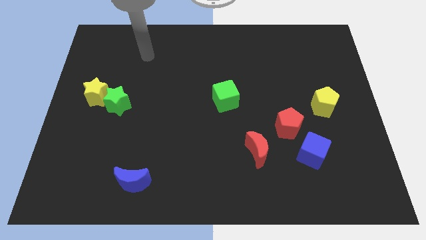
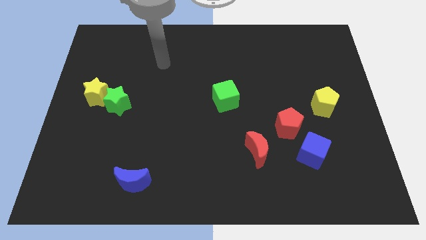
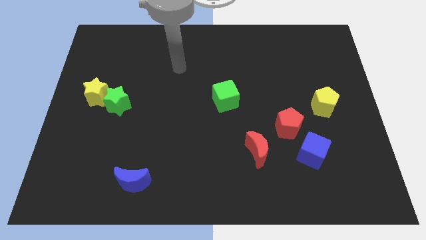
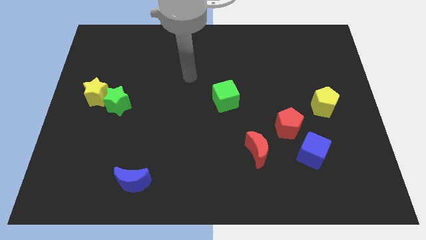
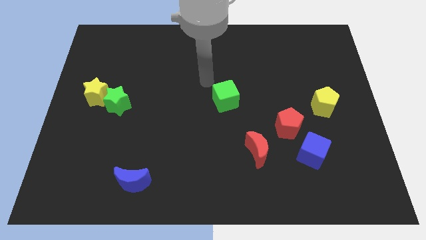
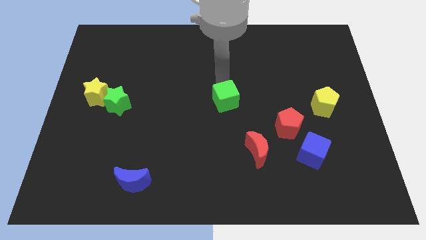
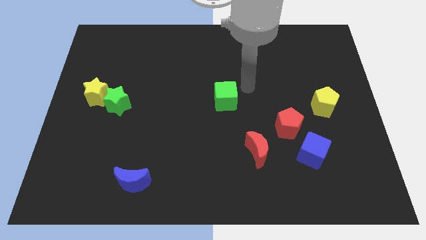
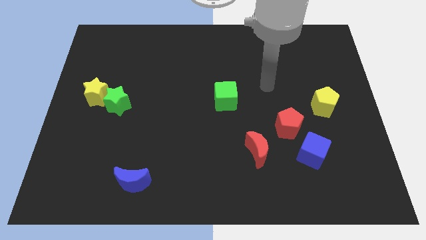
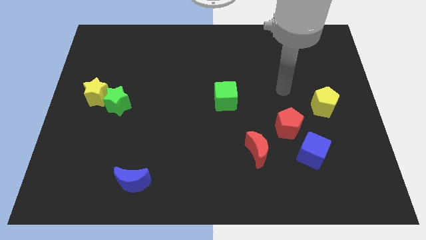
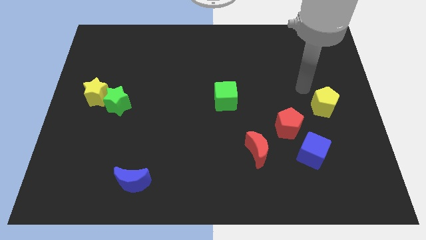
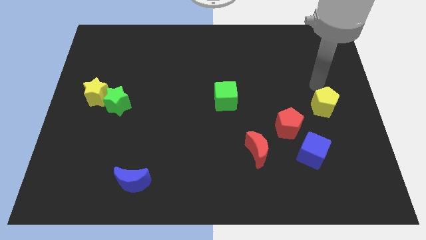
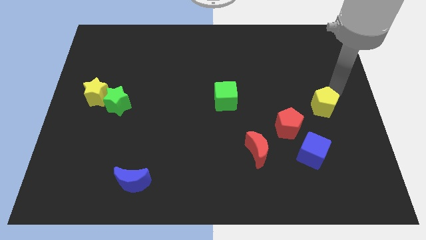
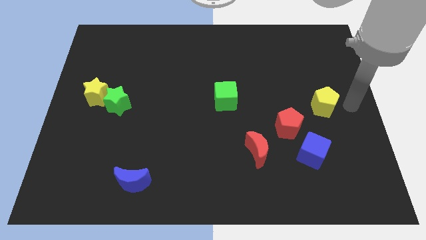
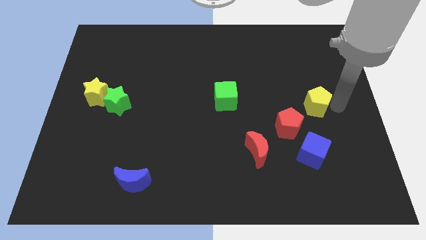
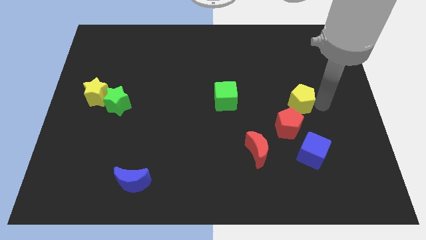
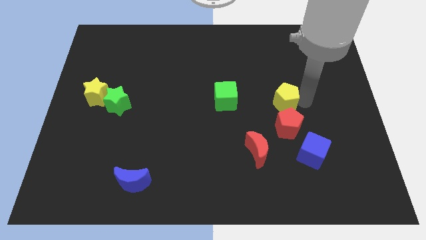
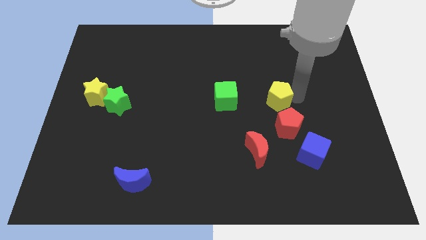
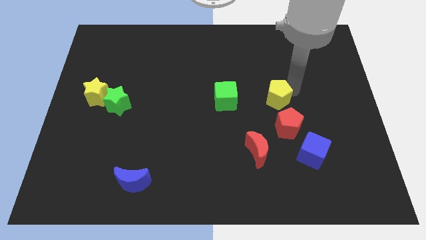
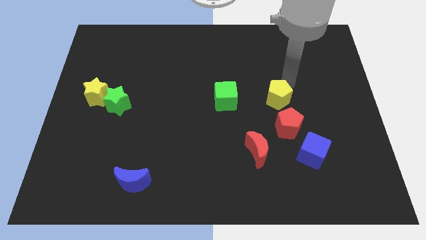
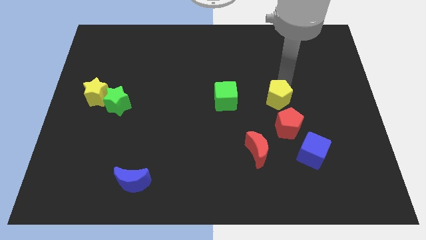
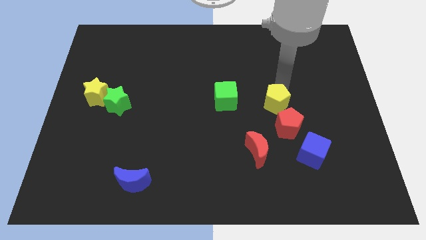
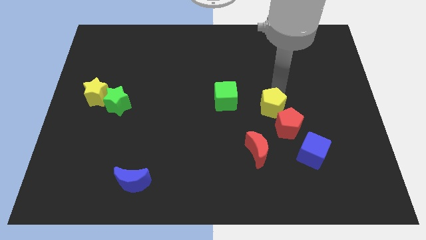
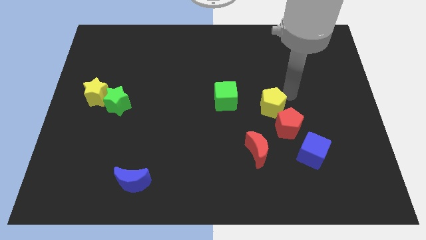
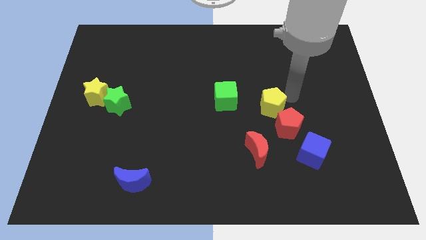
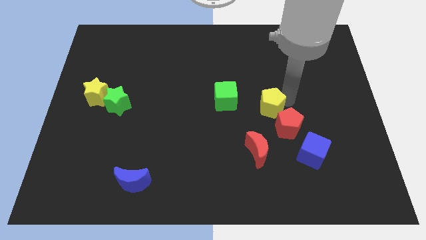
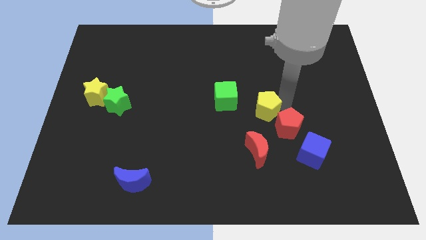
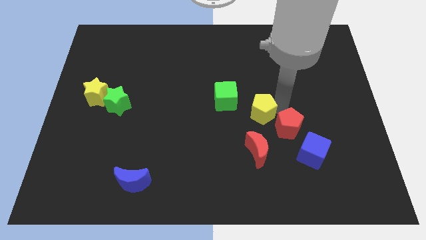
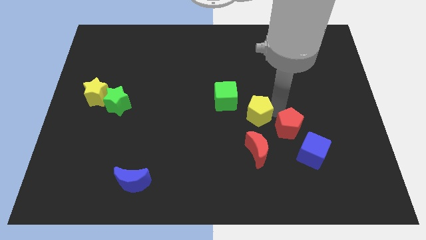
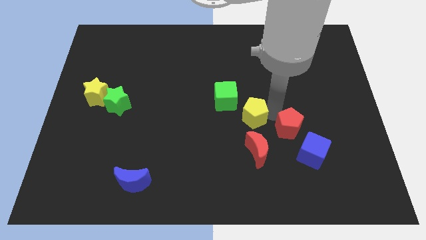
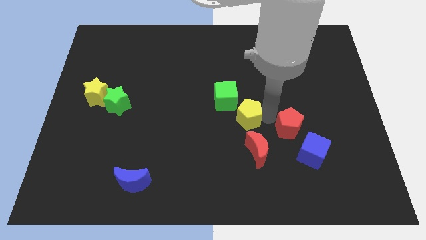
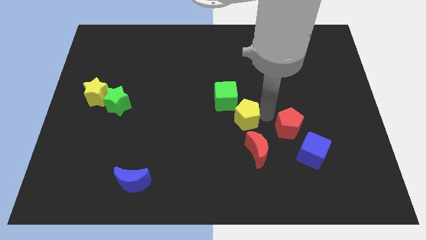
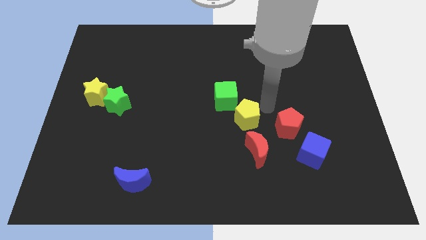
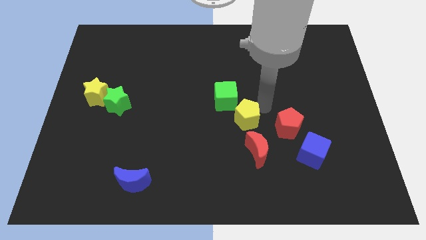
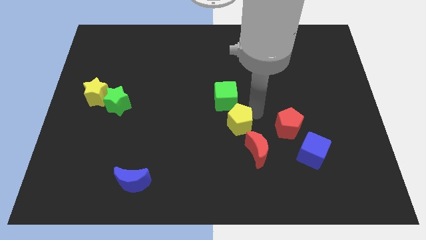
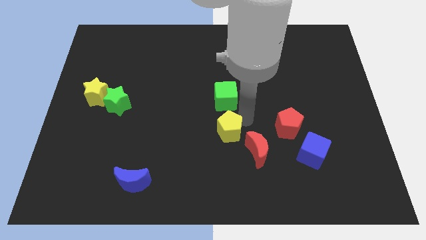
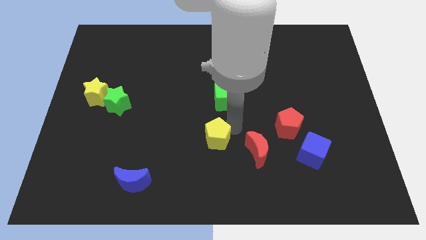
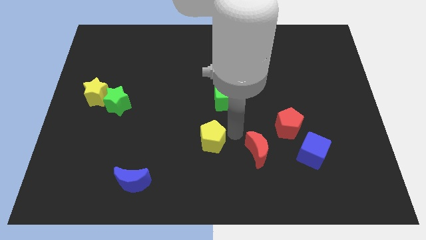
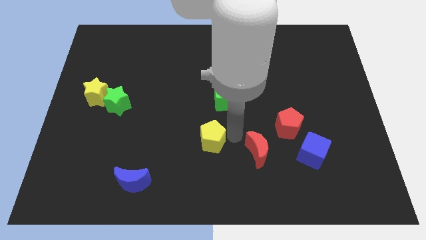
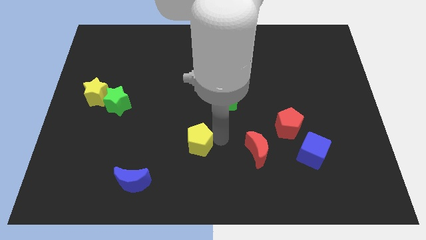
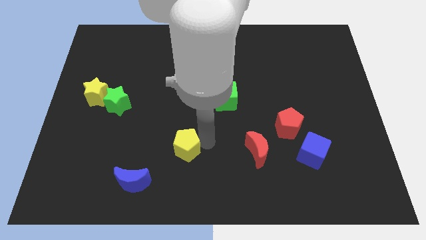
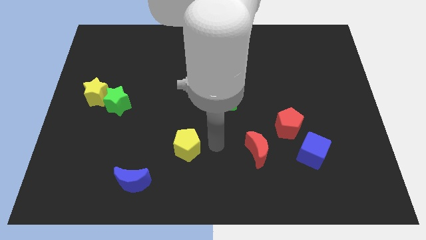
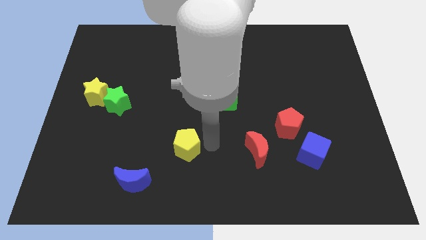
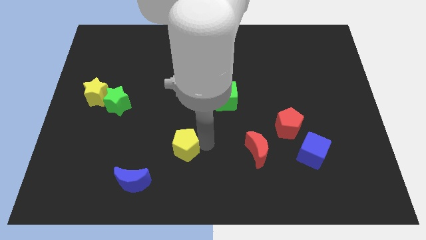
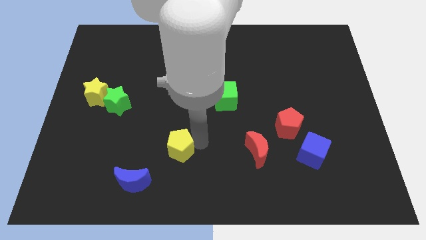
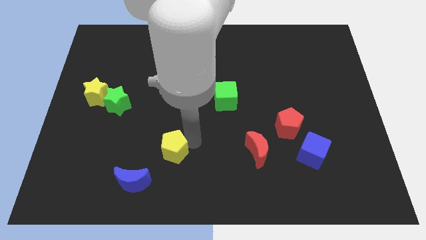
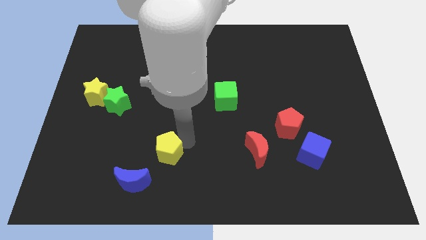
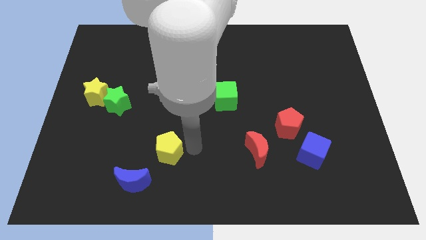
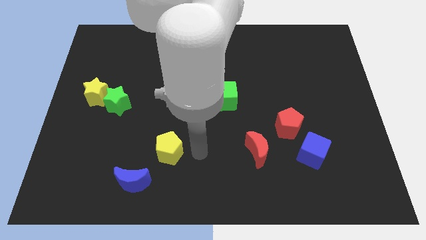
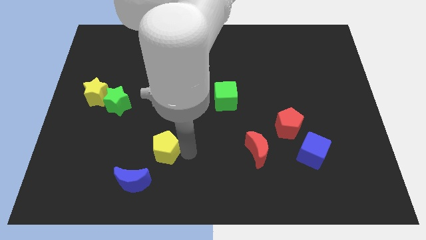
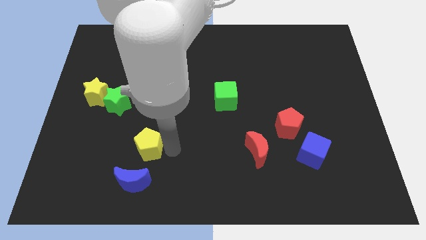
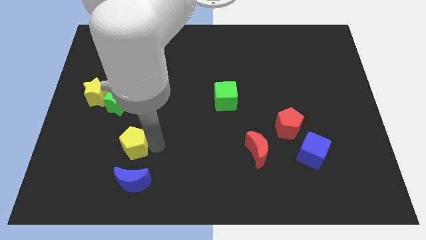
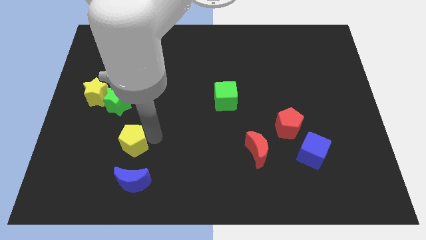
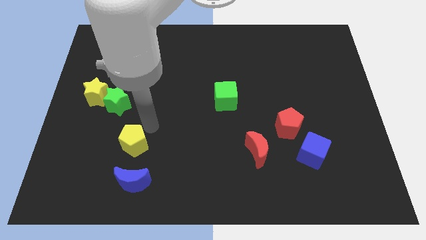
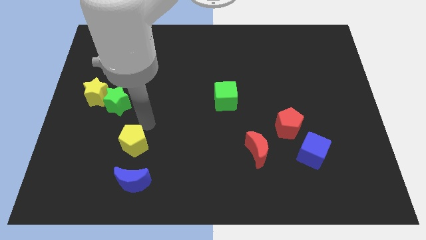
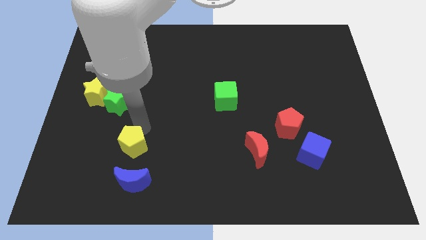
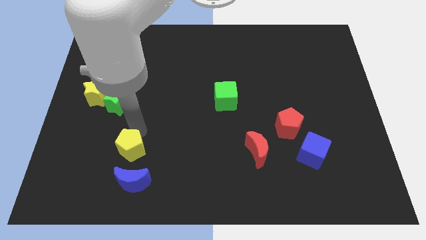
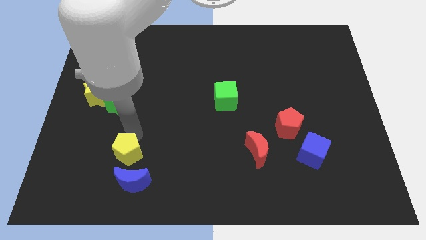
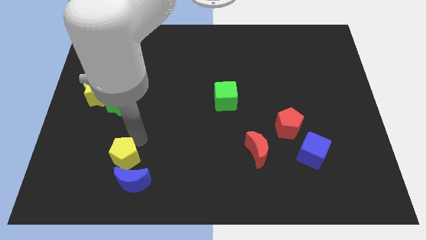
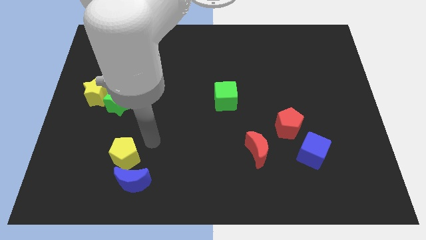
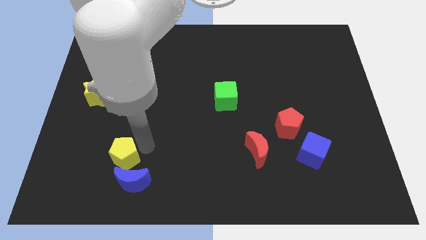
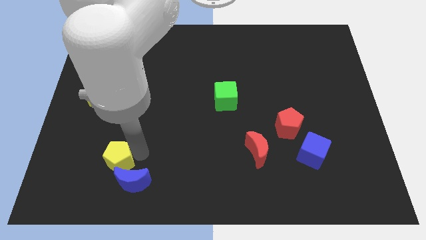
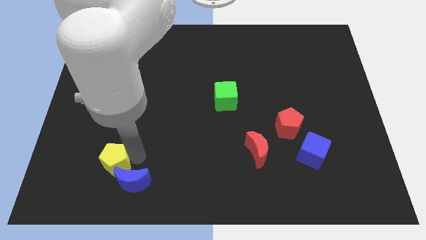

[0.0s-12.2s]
move the yellow pentagon just left of the blue moon
